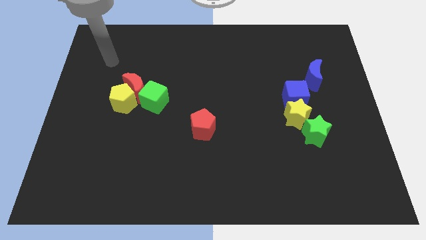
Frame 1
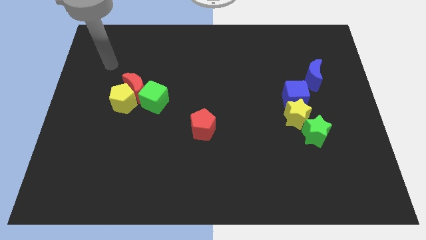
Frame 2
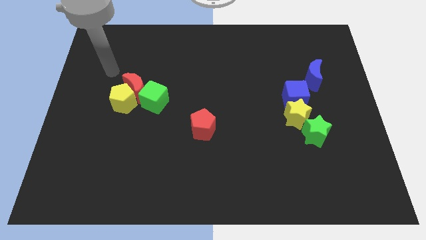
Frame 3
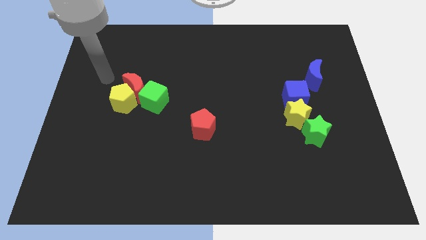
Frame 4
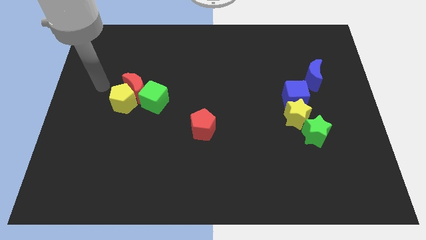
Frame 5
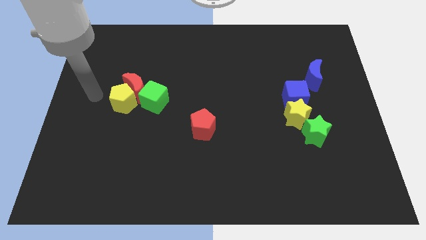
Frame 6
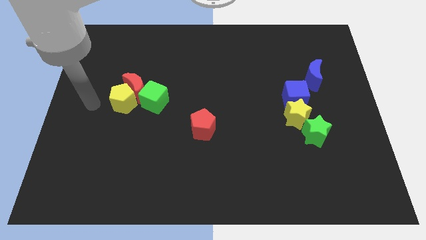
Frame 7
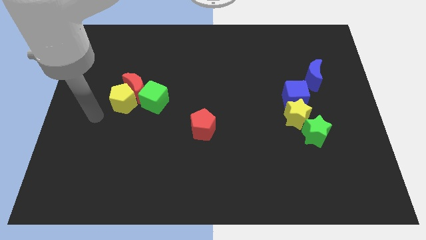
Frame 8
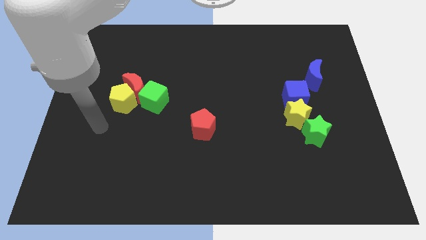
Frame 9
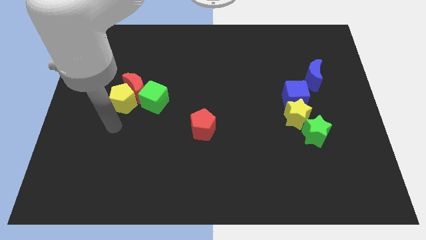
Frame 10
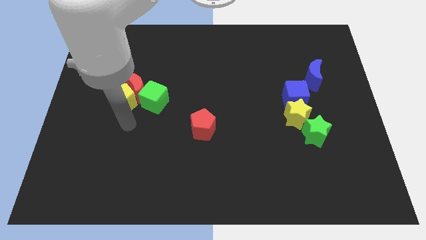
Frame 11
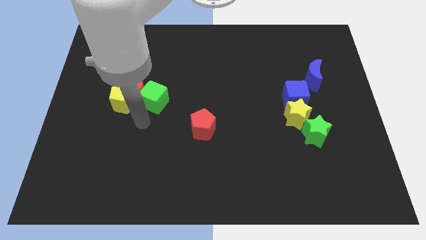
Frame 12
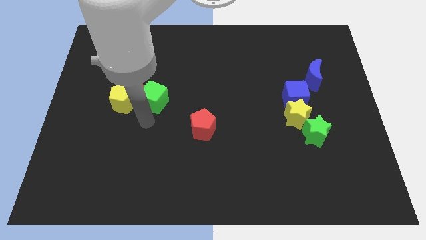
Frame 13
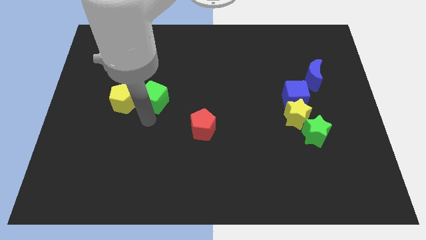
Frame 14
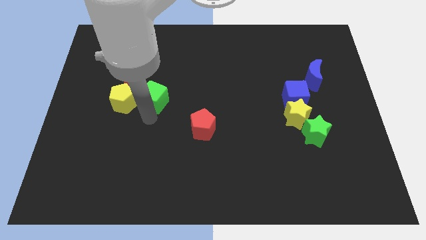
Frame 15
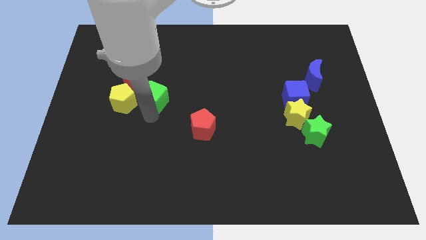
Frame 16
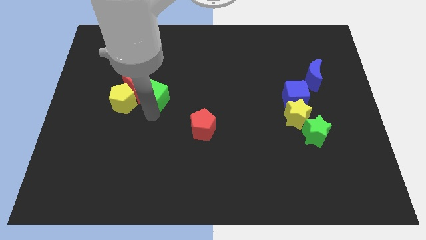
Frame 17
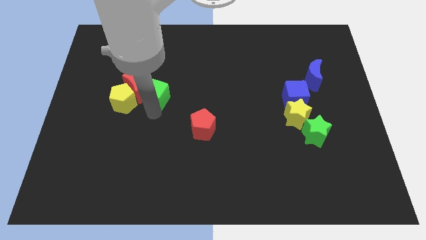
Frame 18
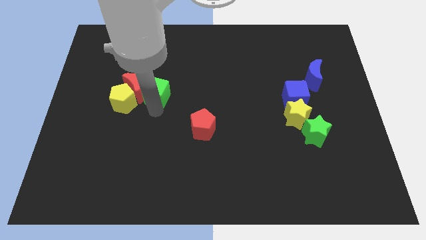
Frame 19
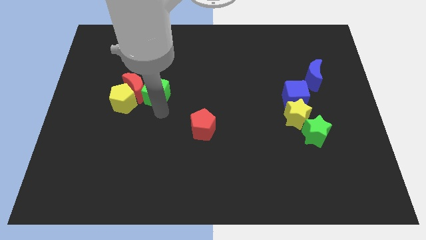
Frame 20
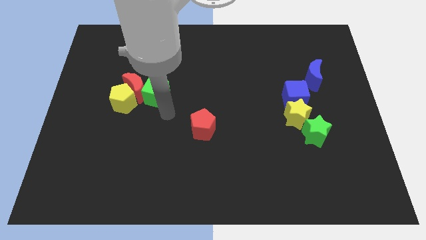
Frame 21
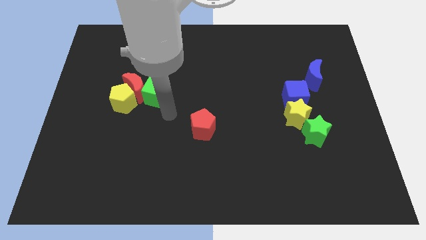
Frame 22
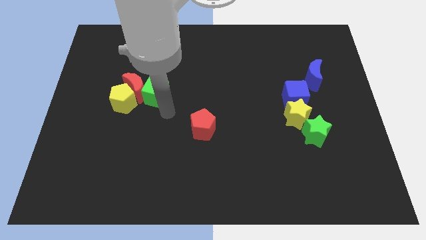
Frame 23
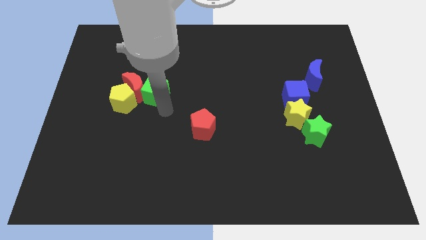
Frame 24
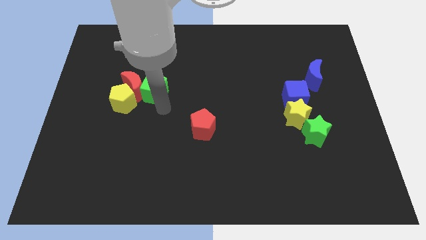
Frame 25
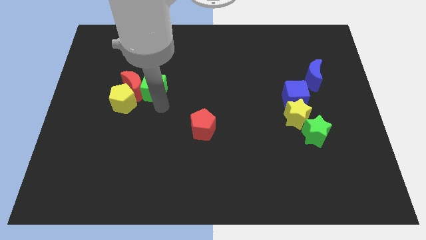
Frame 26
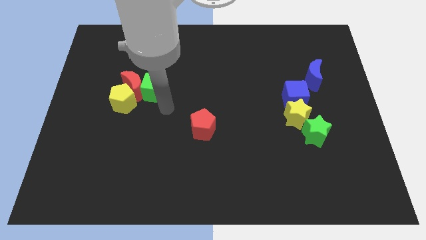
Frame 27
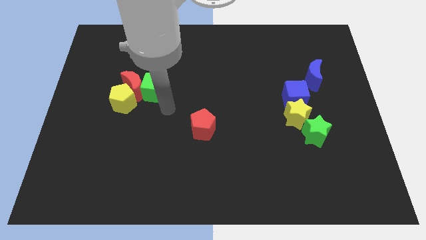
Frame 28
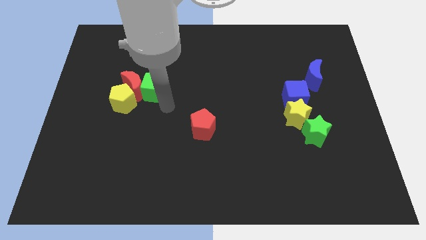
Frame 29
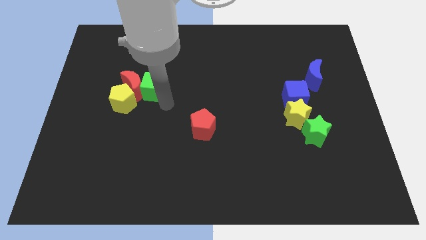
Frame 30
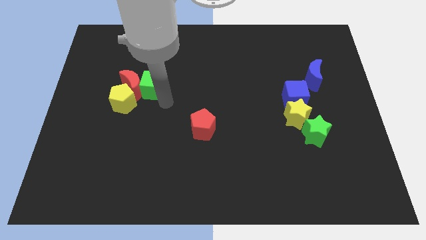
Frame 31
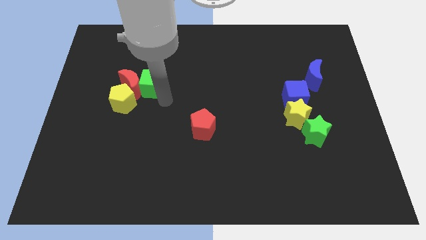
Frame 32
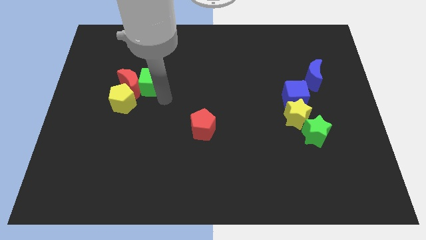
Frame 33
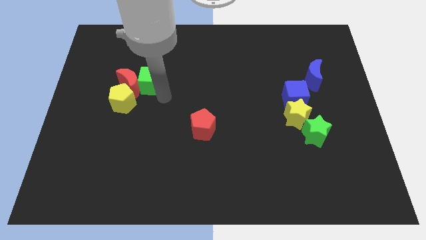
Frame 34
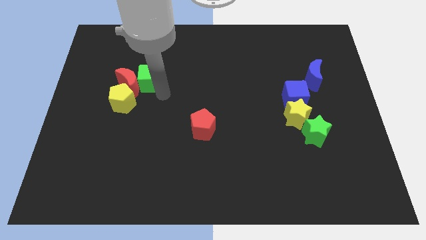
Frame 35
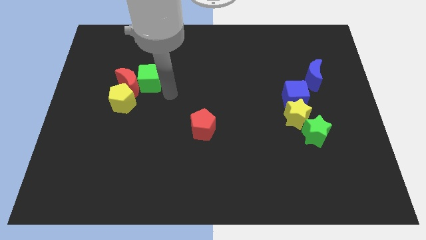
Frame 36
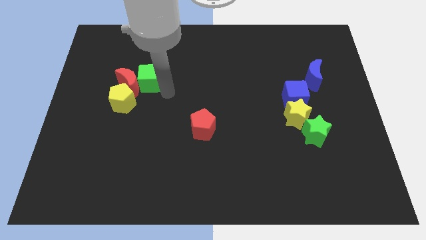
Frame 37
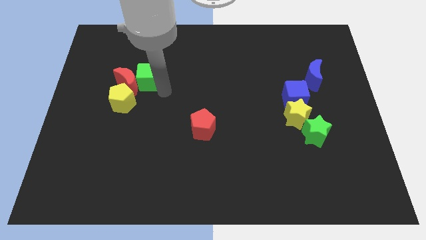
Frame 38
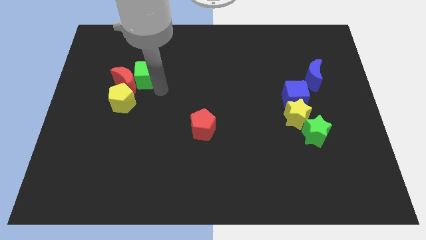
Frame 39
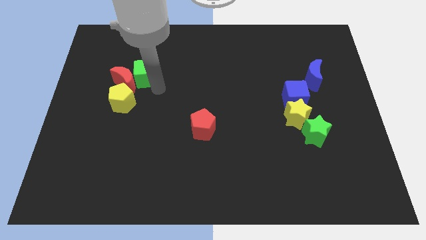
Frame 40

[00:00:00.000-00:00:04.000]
push the green cube up and to the left a bit

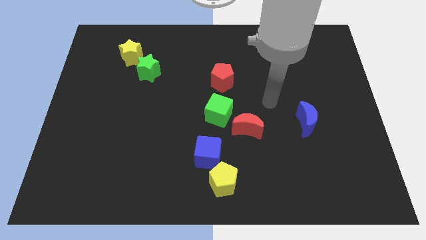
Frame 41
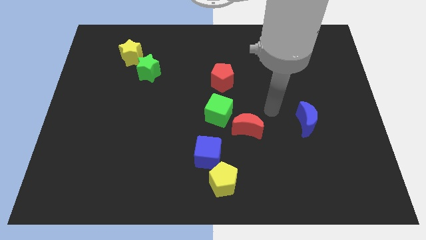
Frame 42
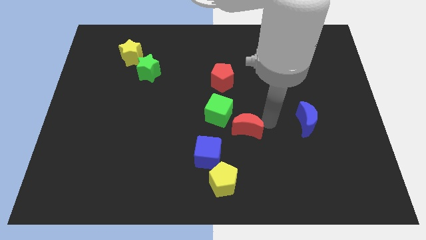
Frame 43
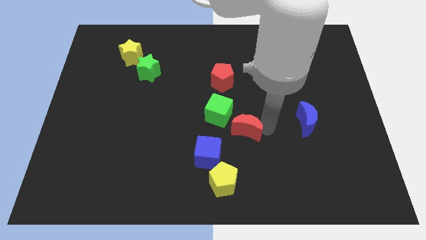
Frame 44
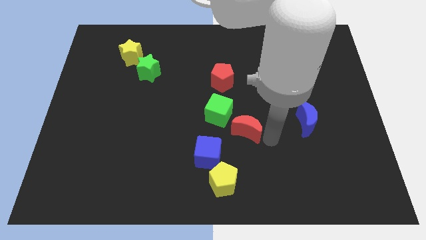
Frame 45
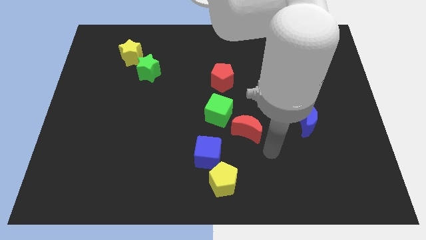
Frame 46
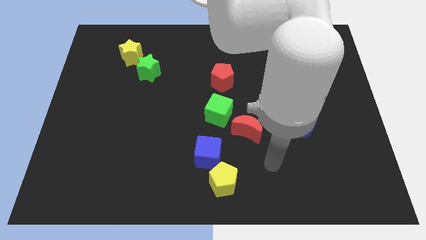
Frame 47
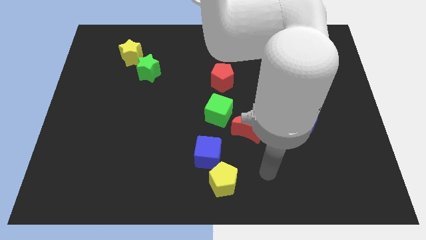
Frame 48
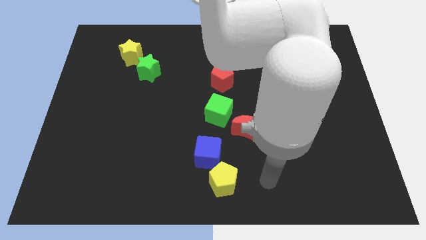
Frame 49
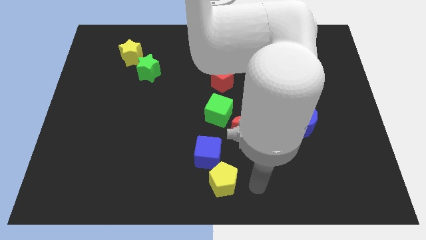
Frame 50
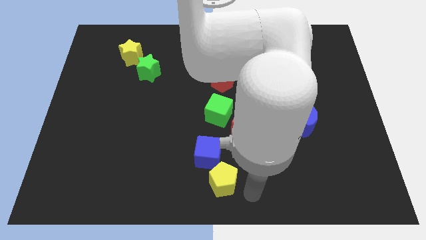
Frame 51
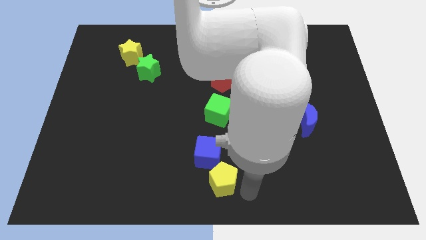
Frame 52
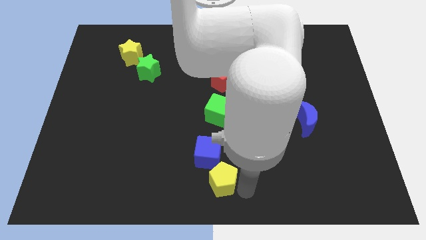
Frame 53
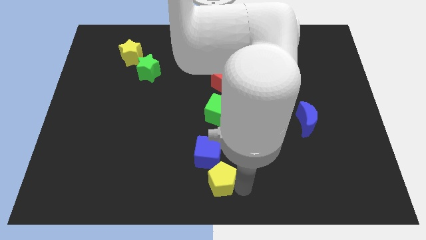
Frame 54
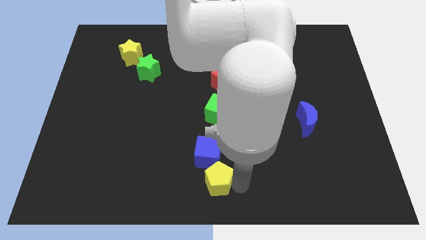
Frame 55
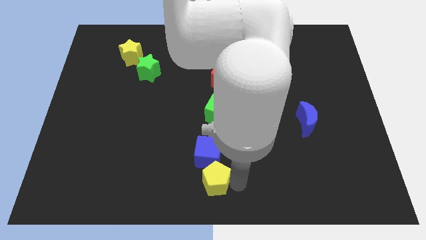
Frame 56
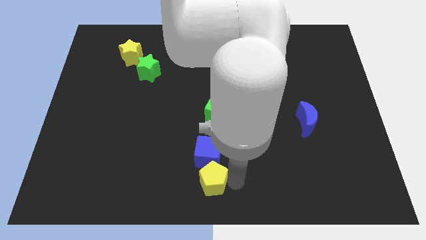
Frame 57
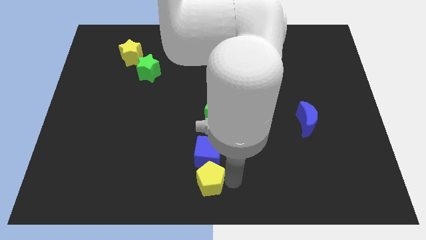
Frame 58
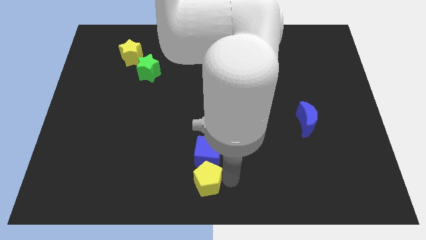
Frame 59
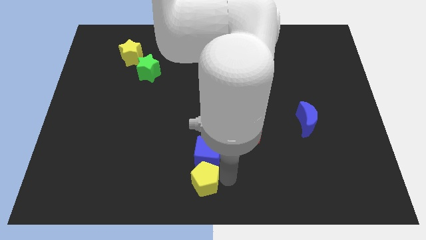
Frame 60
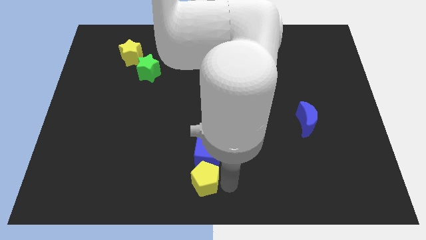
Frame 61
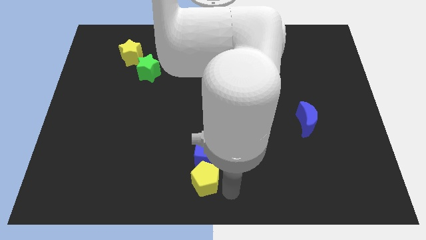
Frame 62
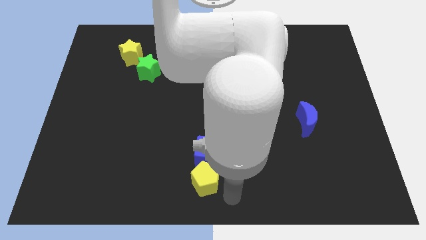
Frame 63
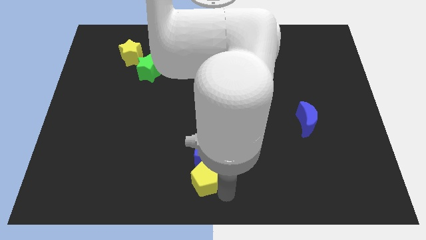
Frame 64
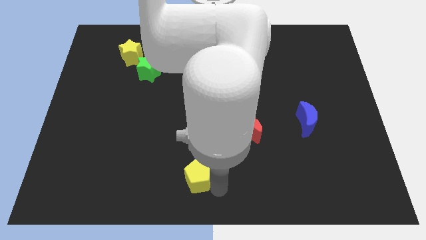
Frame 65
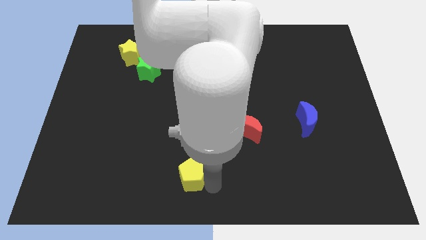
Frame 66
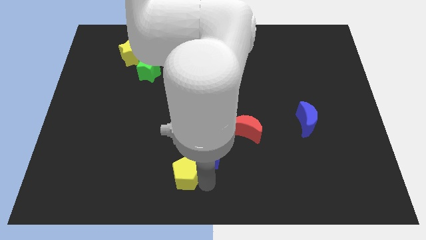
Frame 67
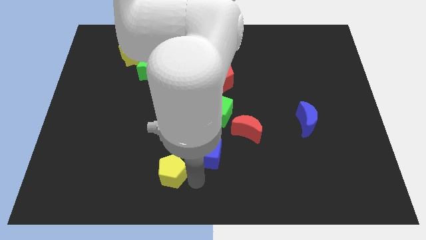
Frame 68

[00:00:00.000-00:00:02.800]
push the yellow pentagon upwards and to the left a little

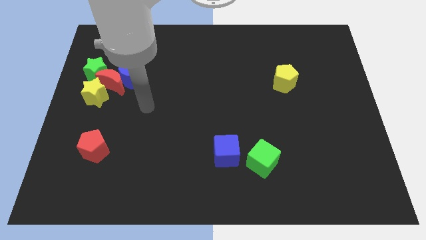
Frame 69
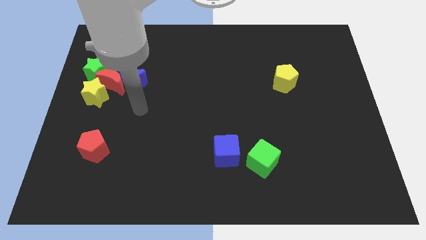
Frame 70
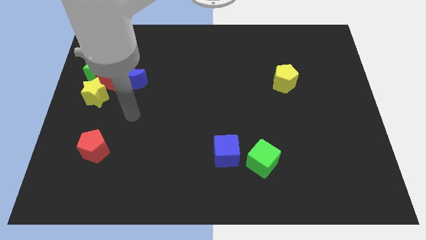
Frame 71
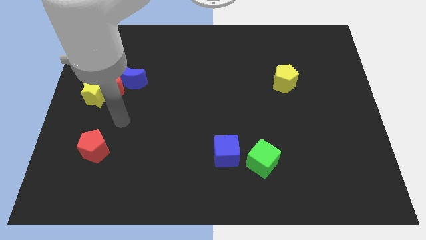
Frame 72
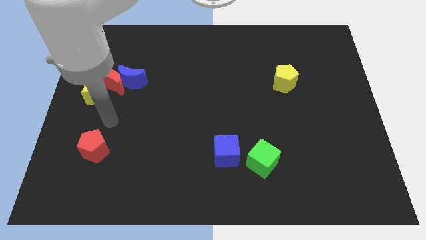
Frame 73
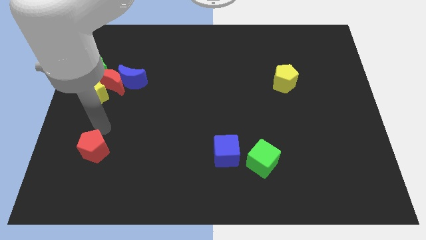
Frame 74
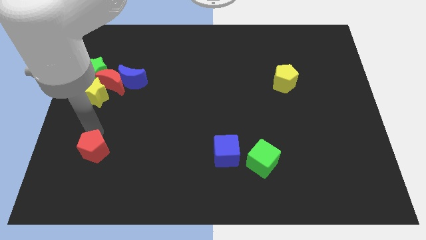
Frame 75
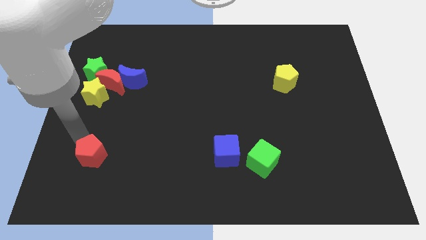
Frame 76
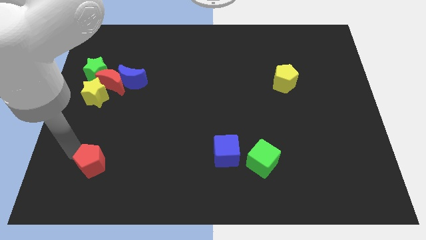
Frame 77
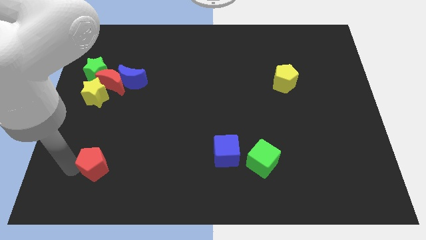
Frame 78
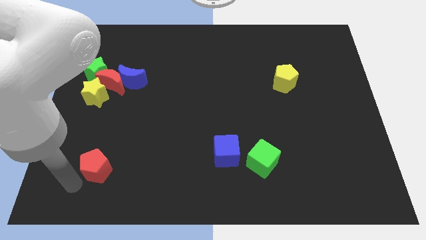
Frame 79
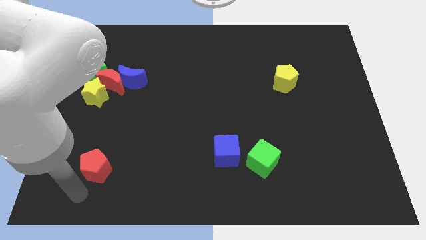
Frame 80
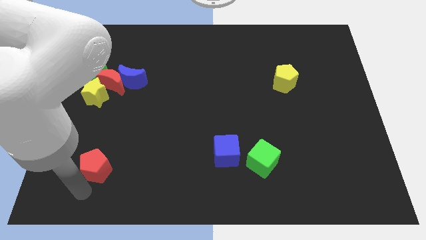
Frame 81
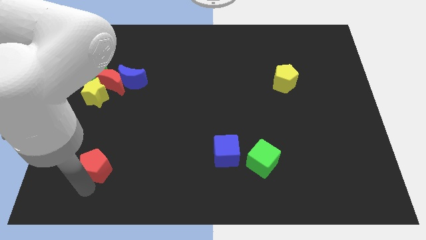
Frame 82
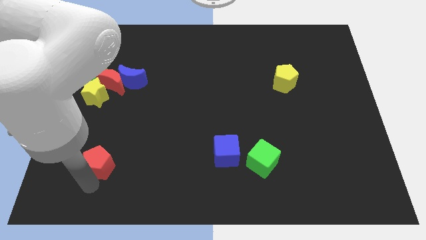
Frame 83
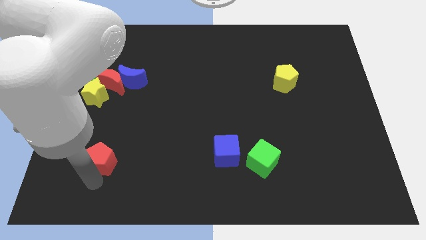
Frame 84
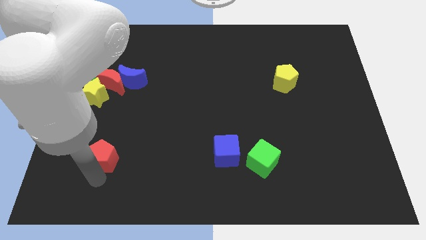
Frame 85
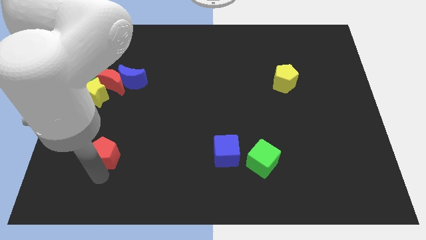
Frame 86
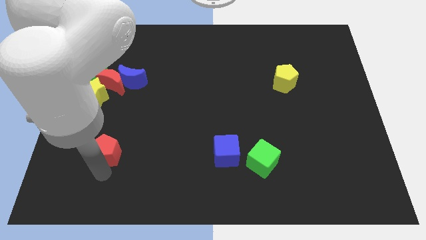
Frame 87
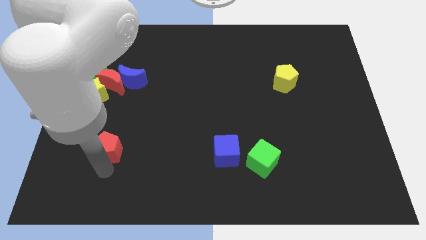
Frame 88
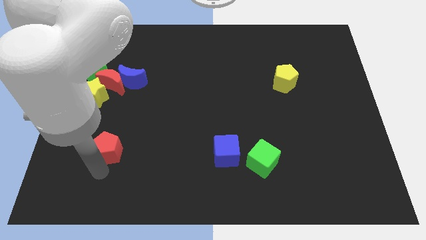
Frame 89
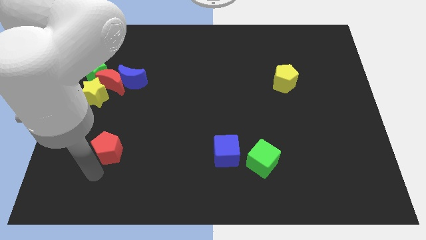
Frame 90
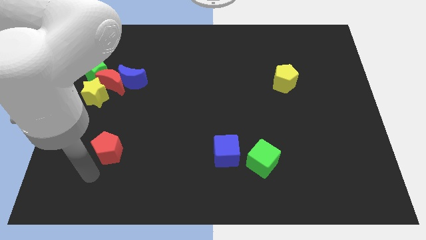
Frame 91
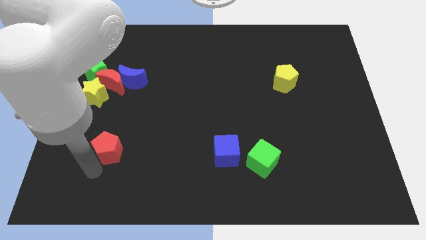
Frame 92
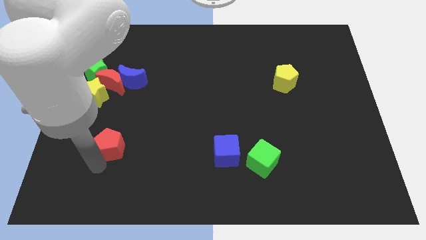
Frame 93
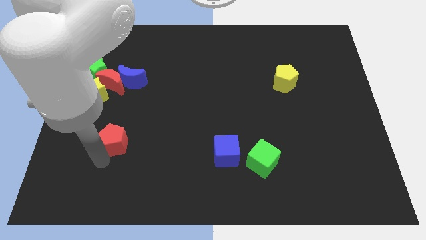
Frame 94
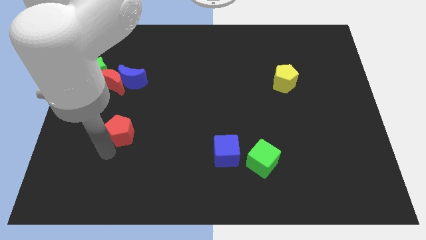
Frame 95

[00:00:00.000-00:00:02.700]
move the red pentagon a bit upwards and right diagonally
